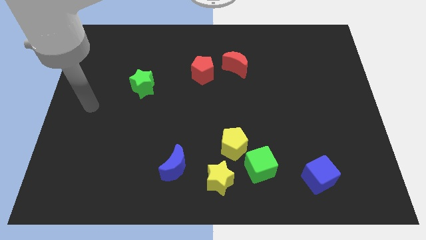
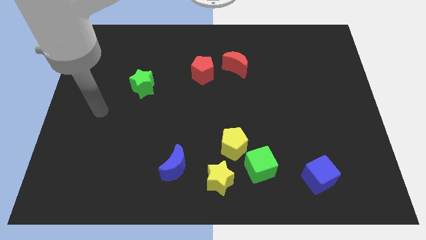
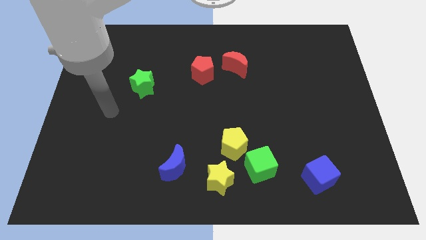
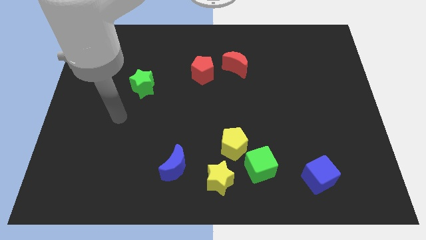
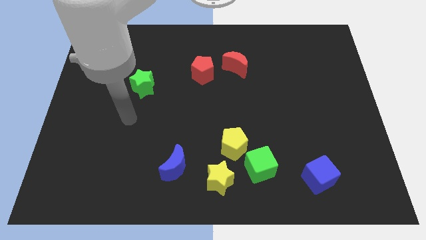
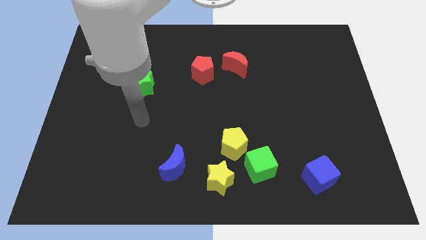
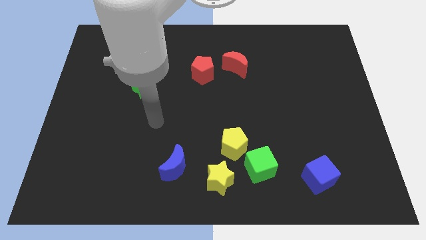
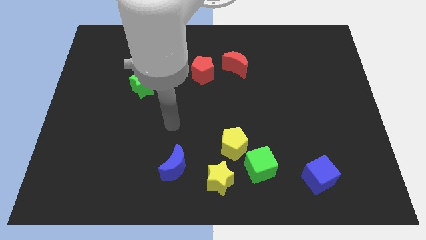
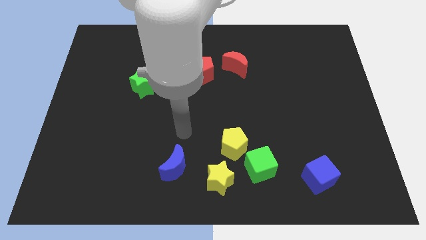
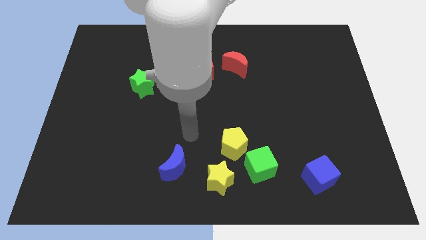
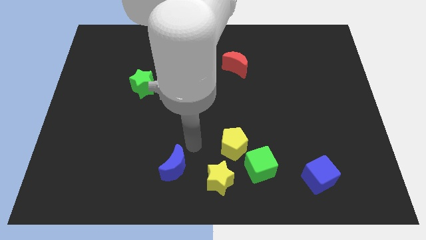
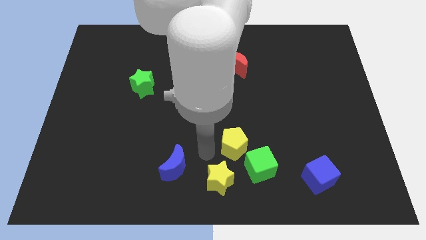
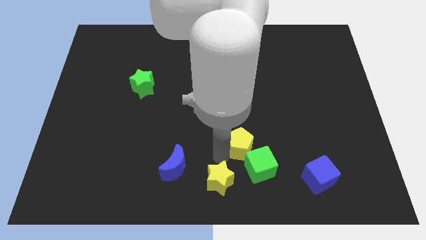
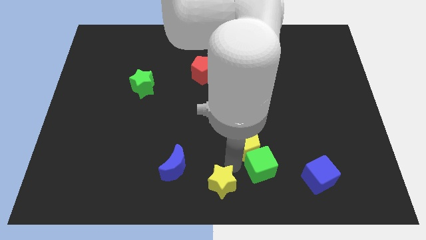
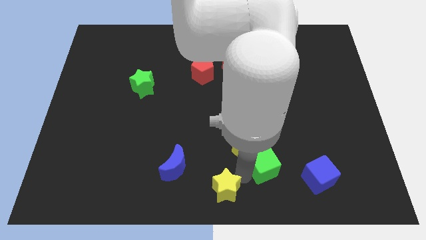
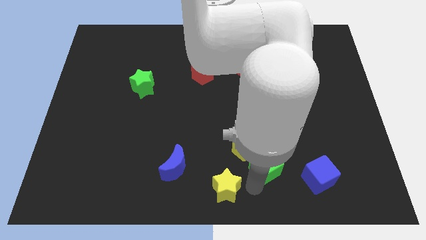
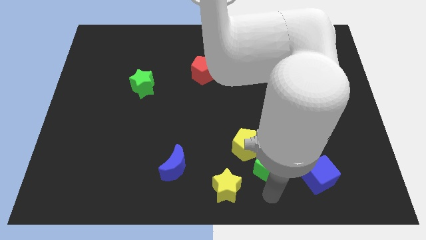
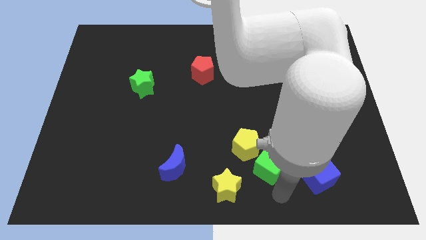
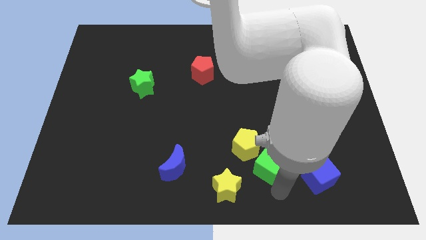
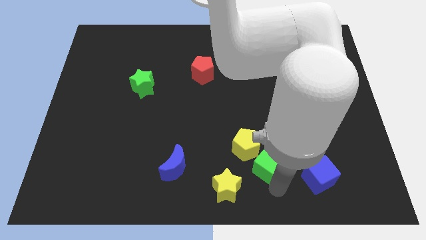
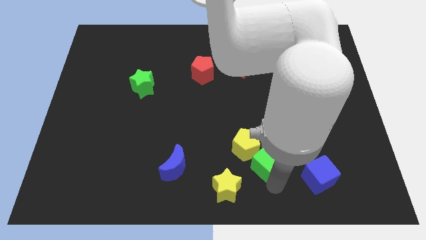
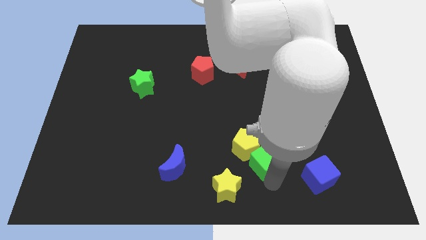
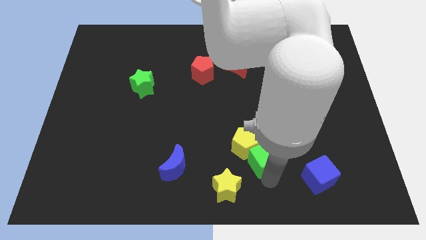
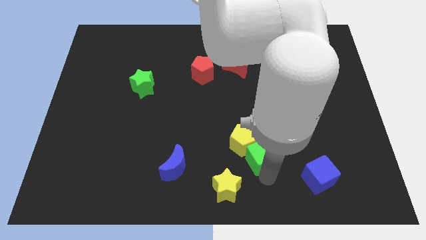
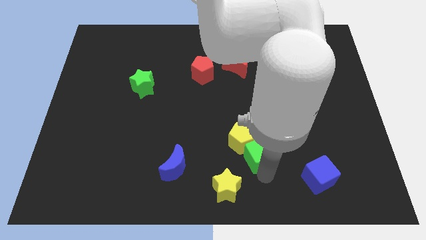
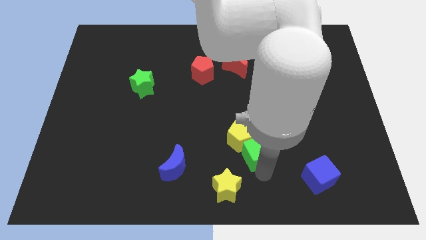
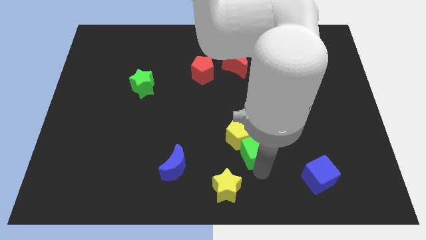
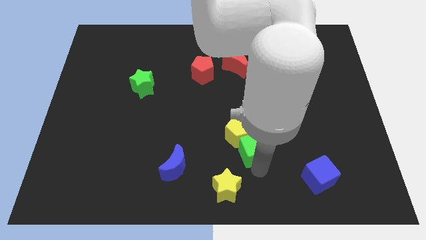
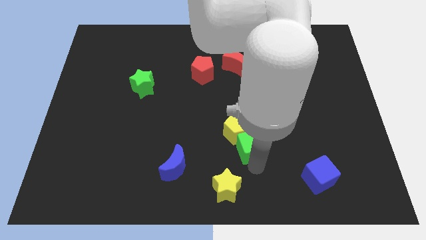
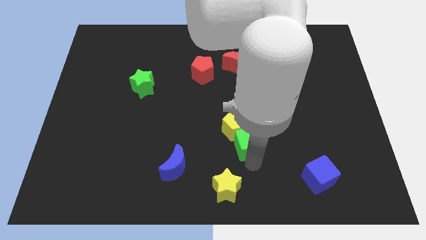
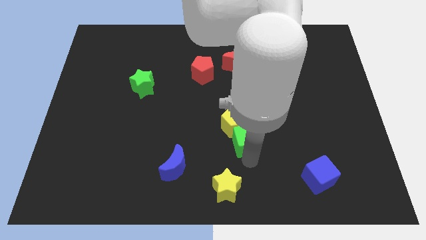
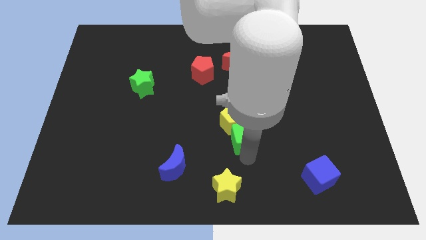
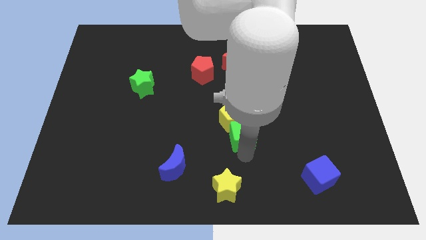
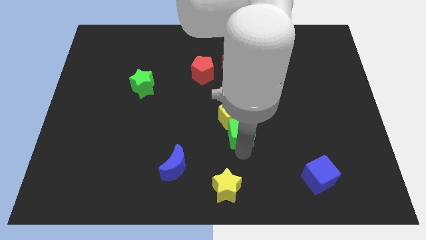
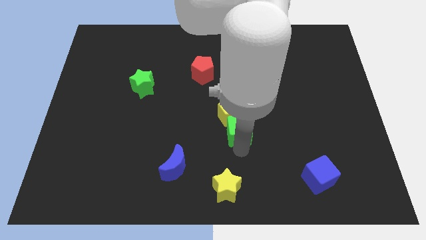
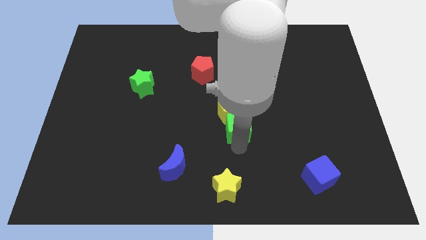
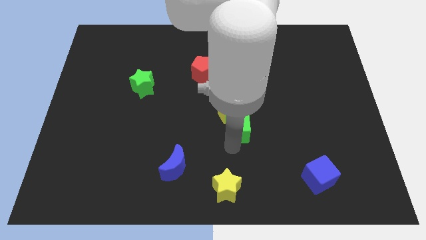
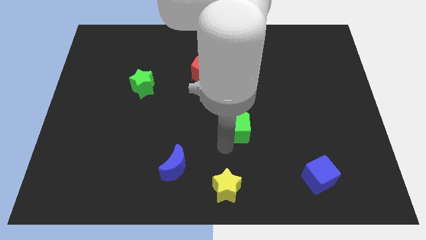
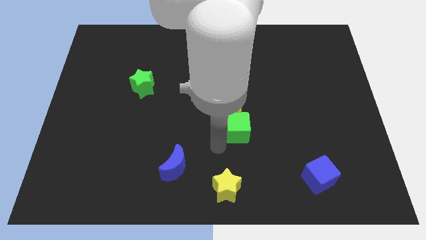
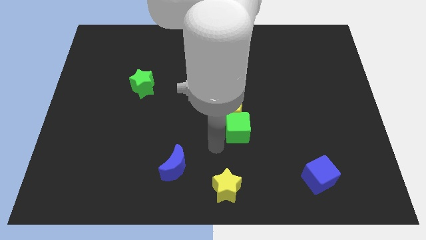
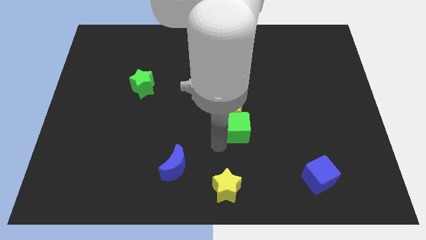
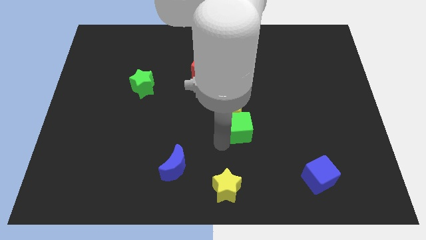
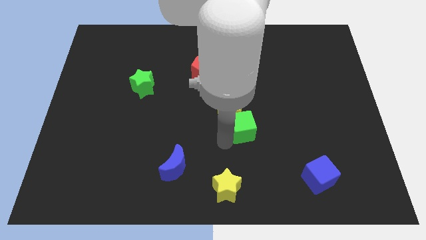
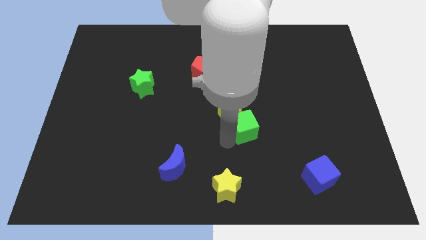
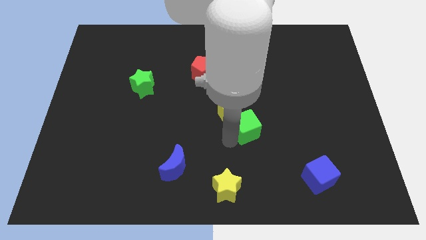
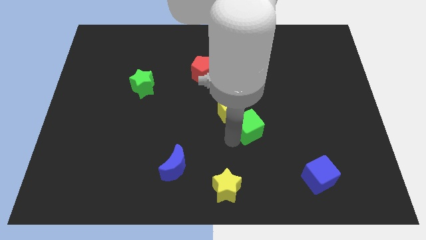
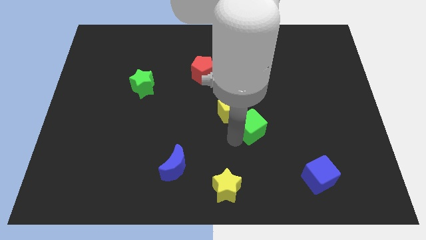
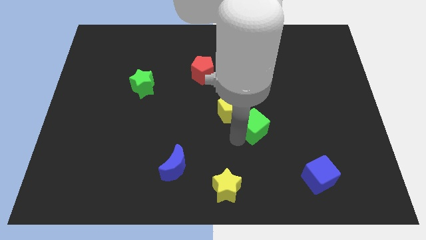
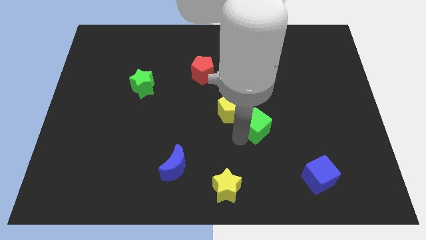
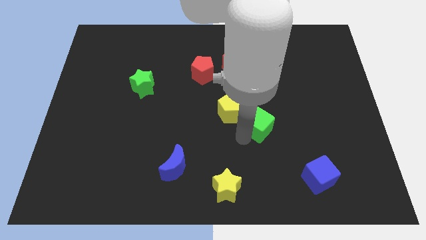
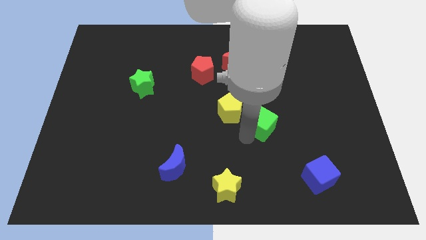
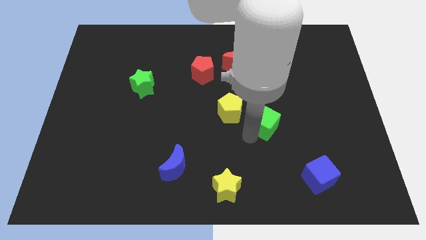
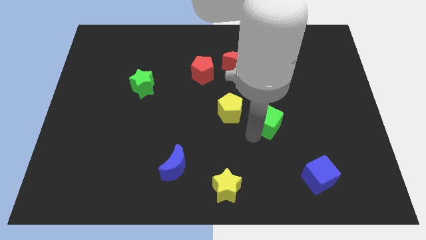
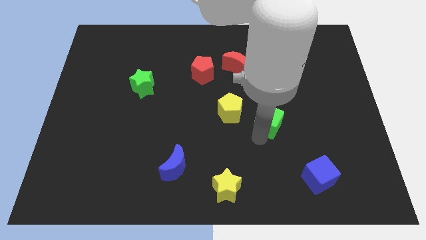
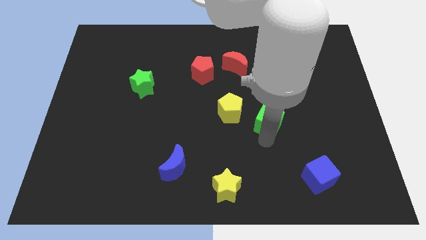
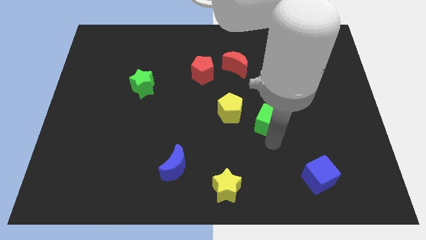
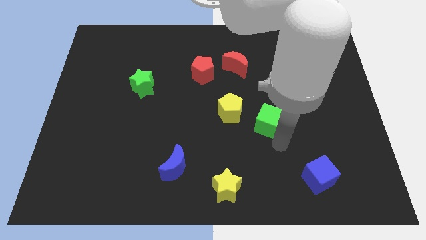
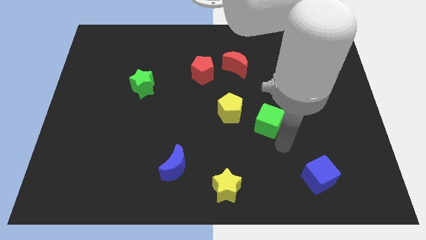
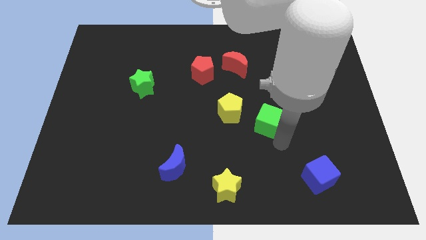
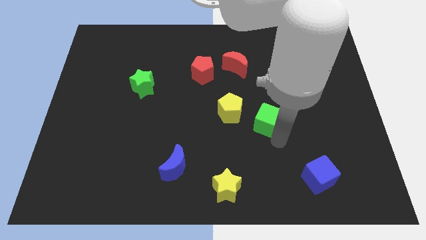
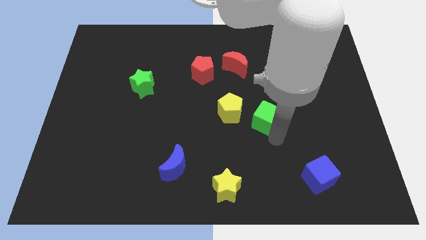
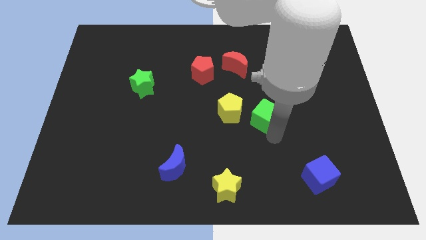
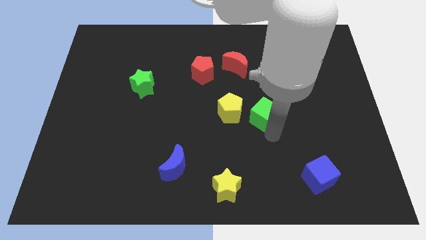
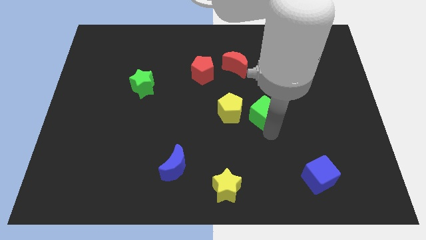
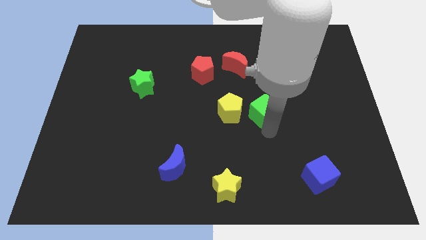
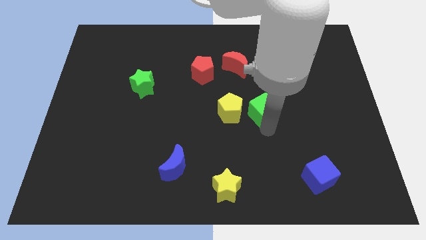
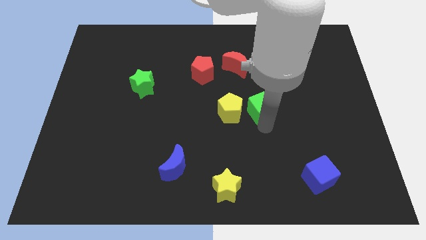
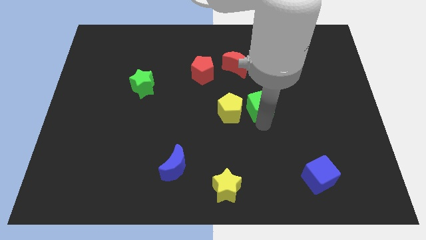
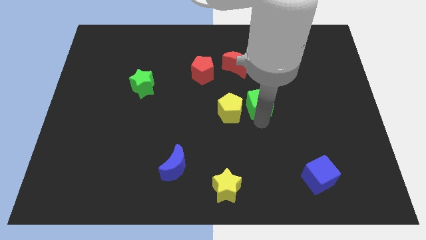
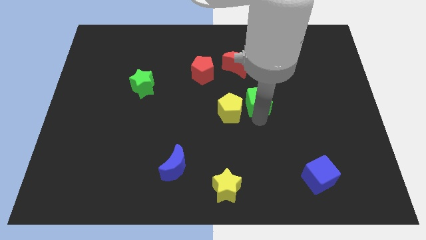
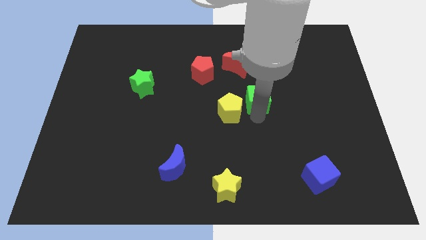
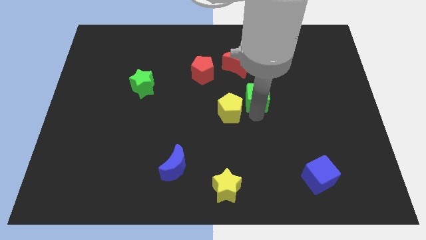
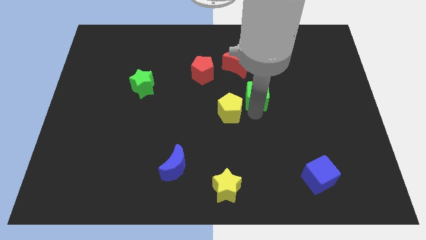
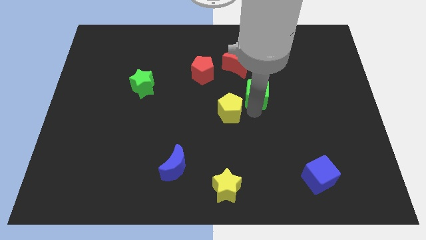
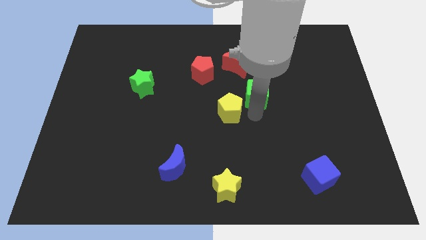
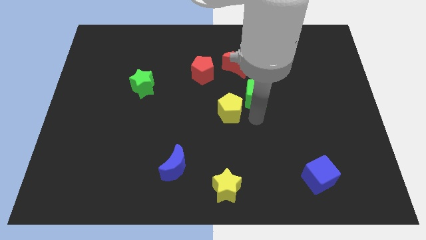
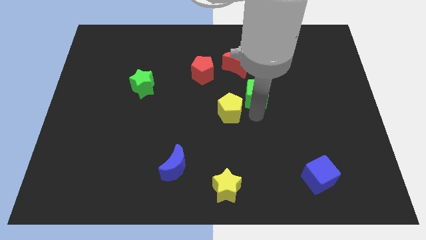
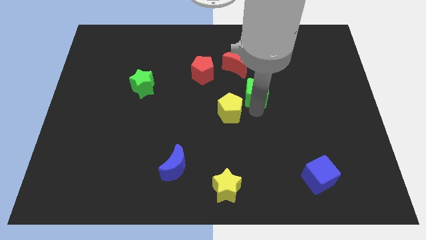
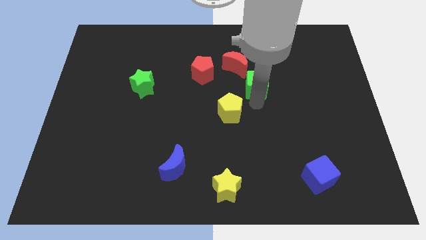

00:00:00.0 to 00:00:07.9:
slide the green cube upwards
